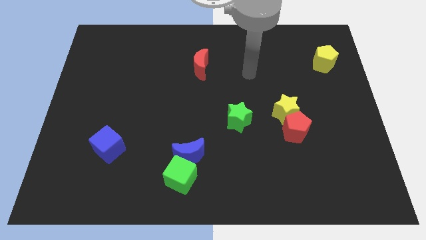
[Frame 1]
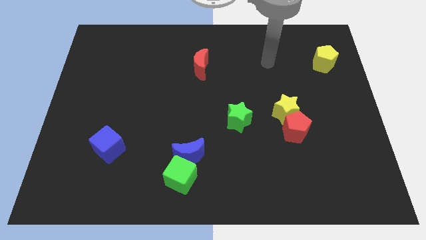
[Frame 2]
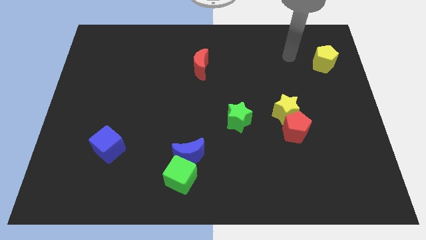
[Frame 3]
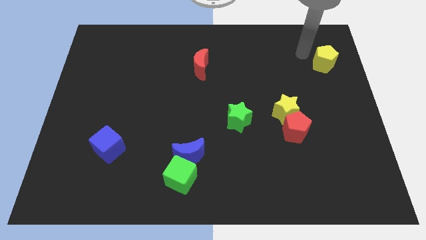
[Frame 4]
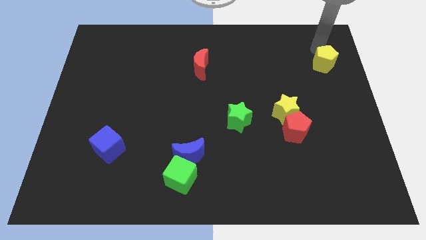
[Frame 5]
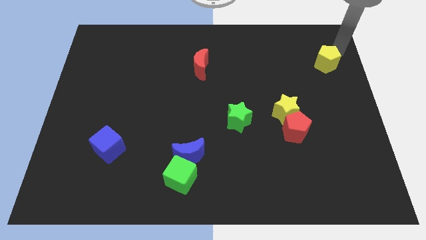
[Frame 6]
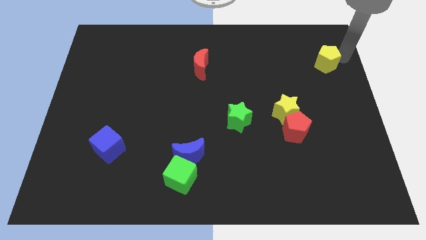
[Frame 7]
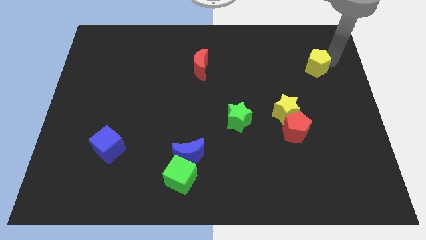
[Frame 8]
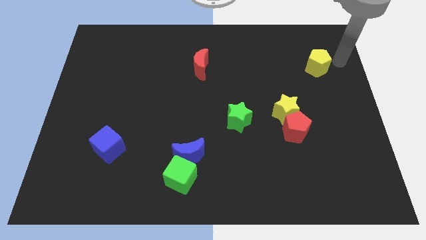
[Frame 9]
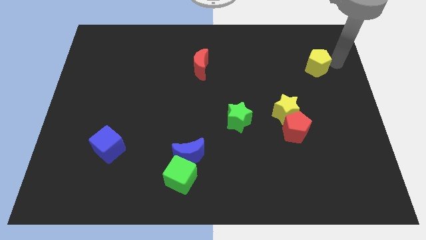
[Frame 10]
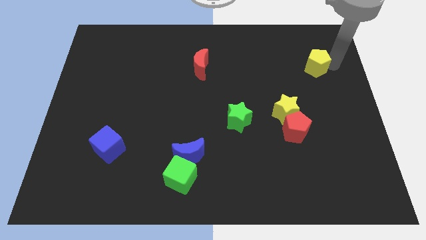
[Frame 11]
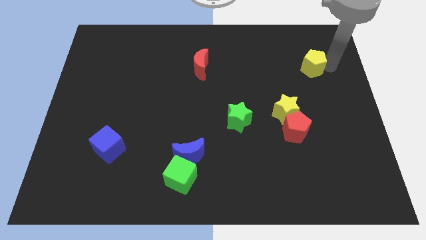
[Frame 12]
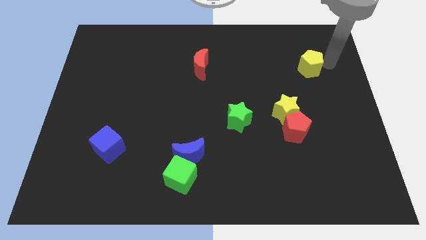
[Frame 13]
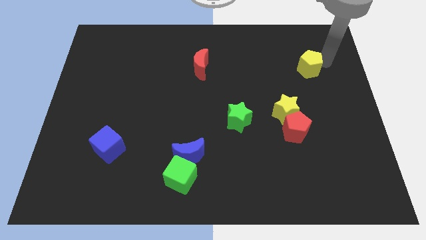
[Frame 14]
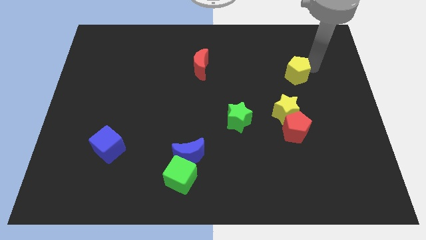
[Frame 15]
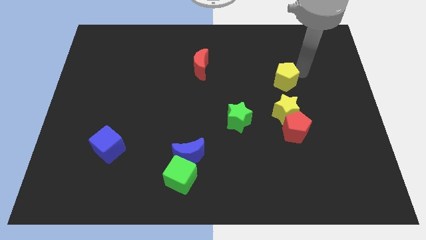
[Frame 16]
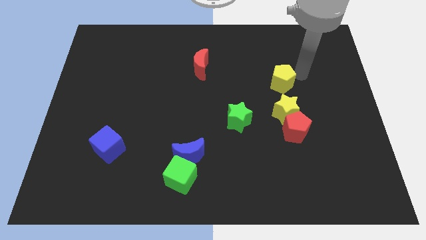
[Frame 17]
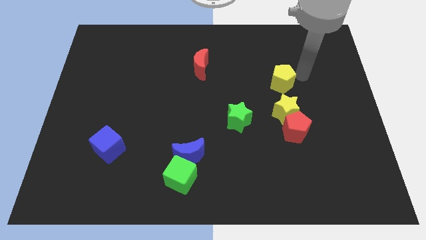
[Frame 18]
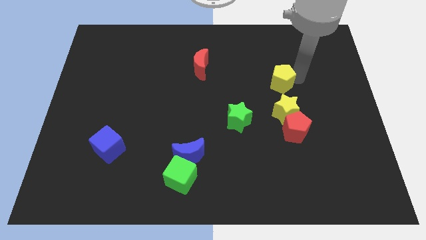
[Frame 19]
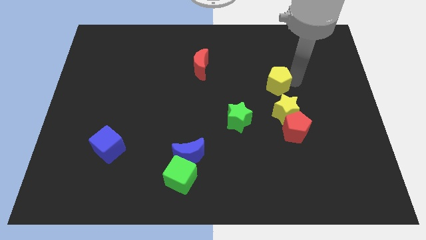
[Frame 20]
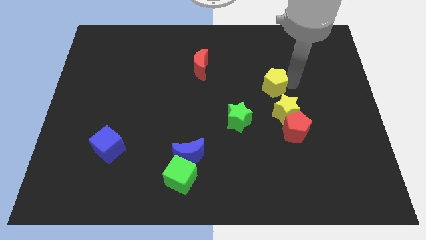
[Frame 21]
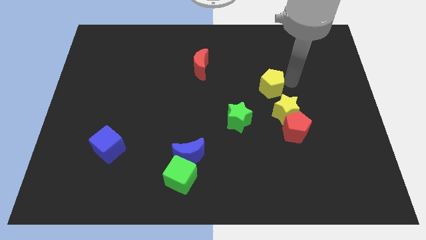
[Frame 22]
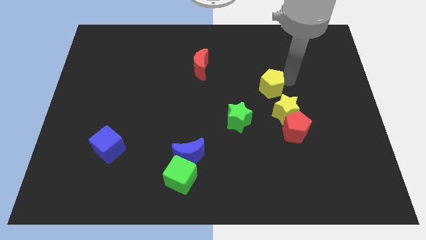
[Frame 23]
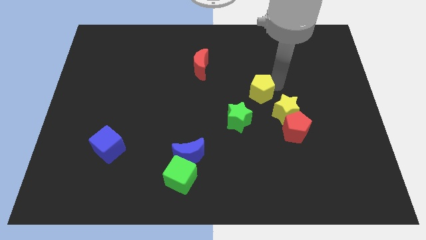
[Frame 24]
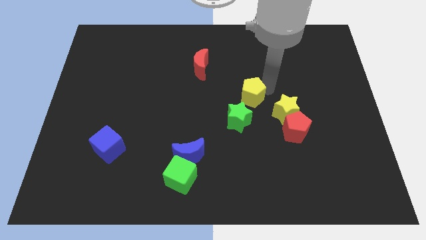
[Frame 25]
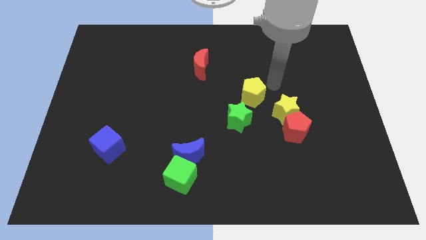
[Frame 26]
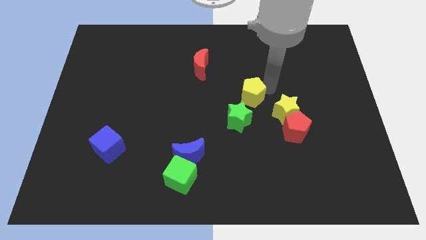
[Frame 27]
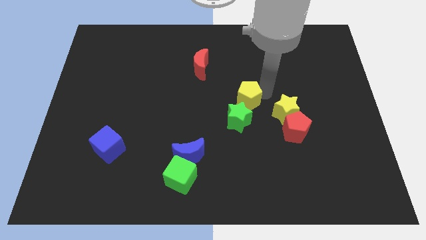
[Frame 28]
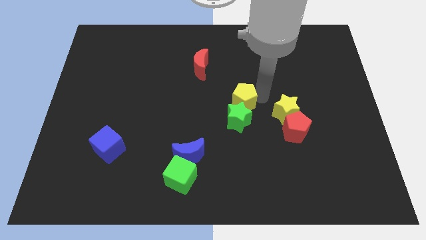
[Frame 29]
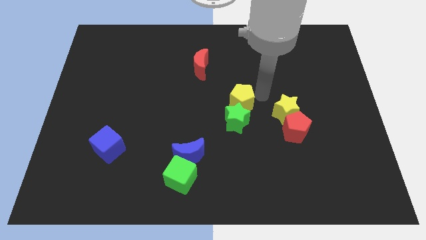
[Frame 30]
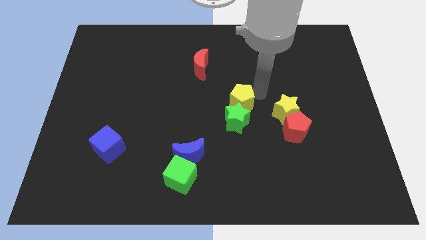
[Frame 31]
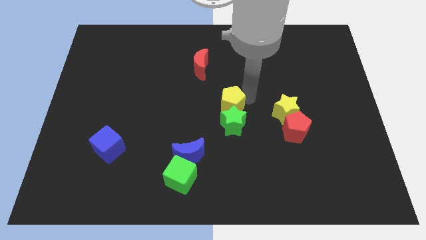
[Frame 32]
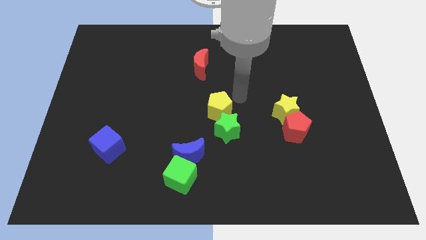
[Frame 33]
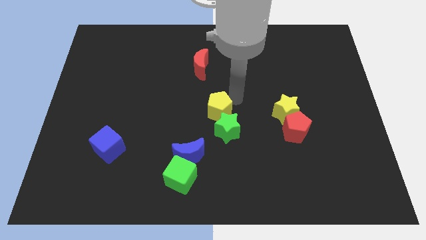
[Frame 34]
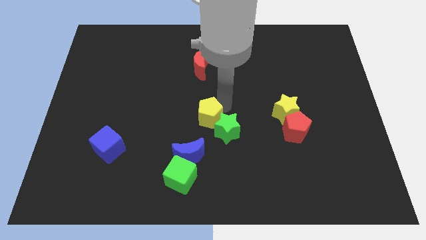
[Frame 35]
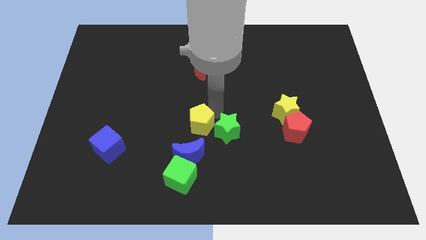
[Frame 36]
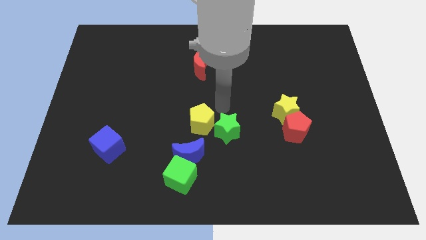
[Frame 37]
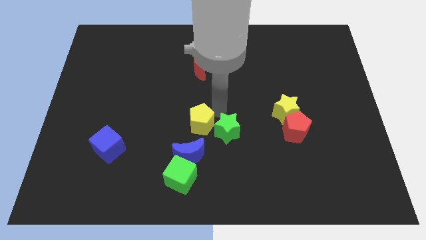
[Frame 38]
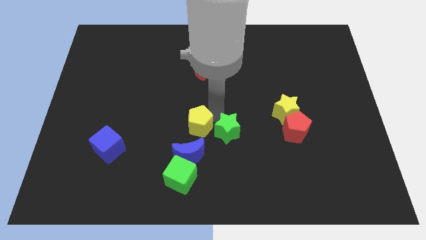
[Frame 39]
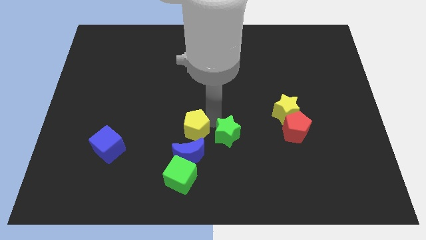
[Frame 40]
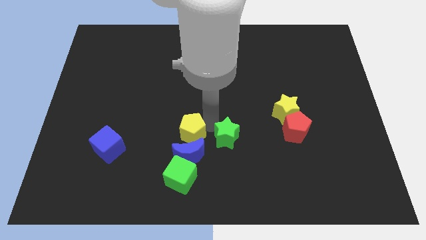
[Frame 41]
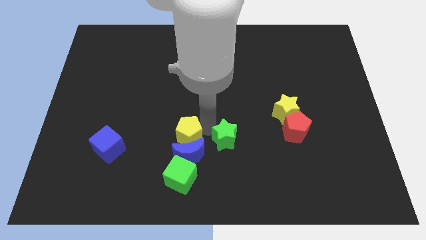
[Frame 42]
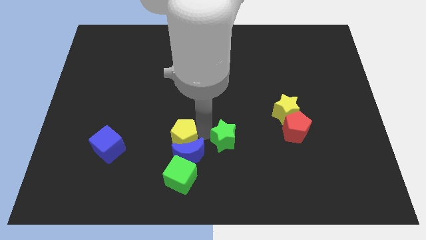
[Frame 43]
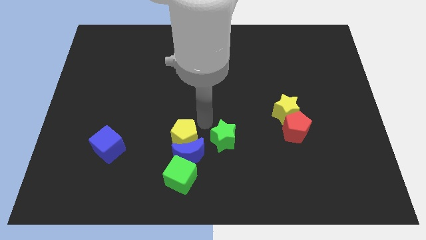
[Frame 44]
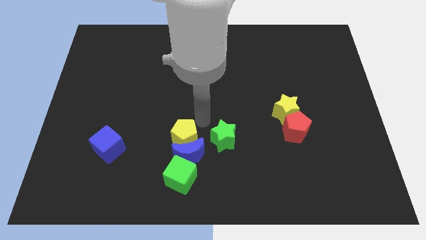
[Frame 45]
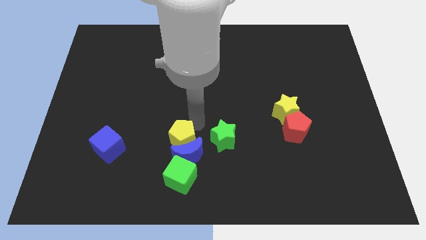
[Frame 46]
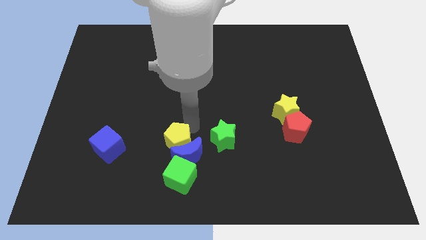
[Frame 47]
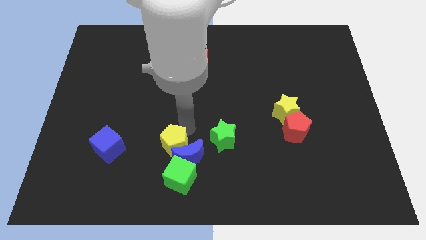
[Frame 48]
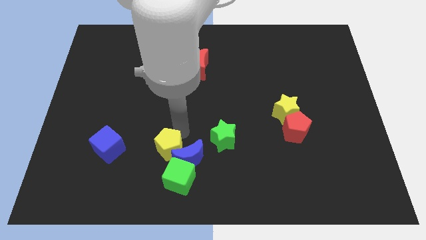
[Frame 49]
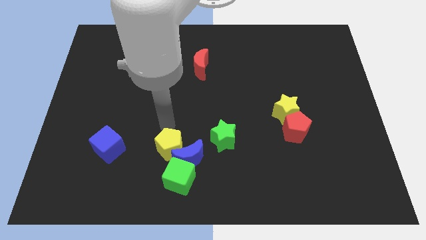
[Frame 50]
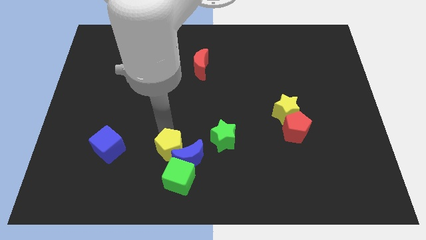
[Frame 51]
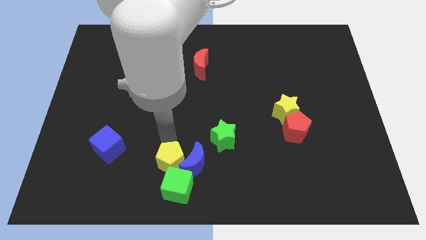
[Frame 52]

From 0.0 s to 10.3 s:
put the yellow pentagon next to the green cube

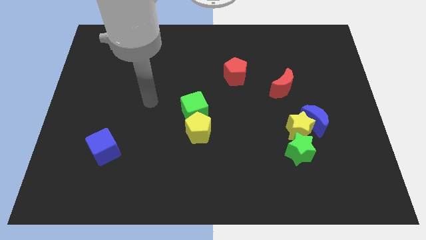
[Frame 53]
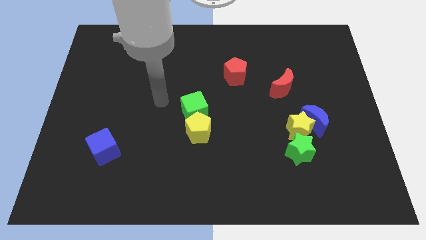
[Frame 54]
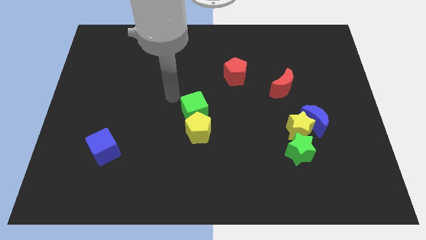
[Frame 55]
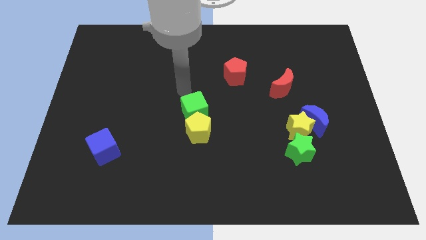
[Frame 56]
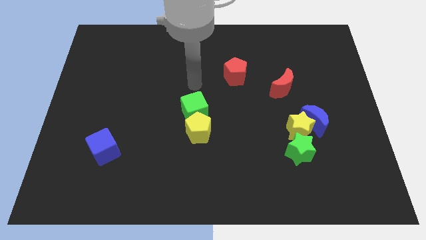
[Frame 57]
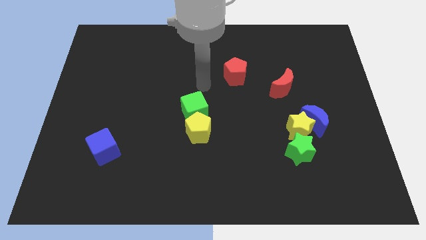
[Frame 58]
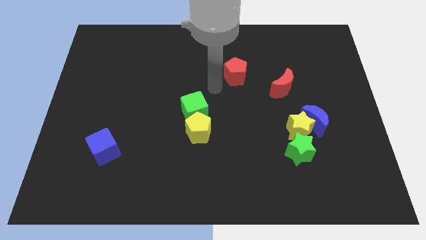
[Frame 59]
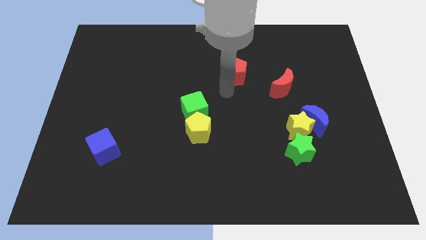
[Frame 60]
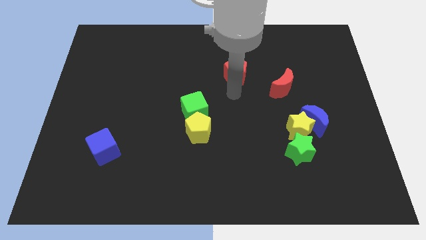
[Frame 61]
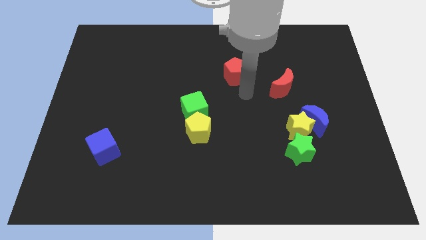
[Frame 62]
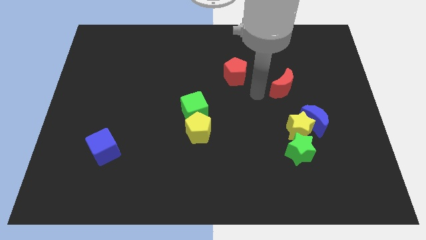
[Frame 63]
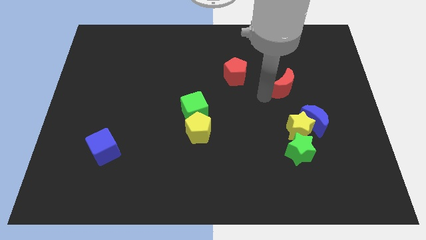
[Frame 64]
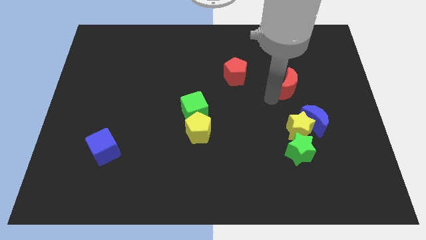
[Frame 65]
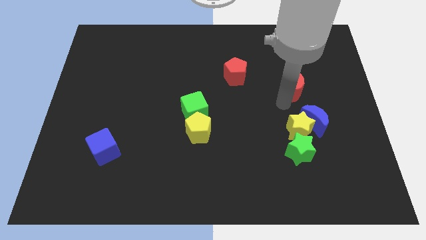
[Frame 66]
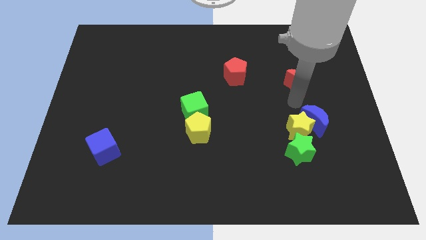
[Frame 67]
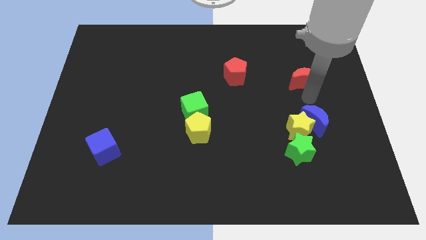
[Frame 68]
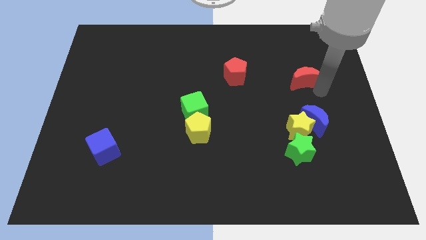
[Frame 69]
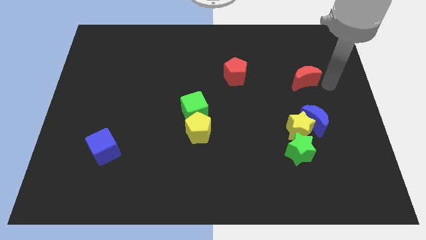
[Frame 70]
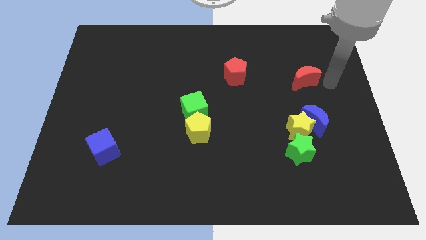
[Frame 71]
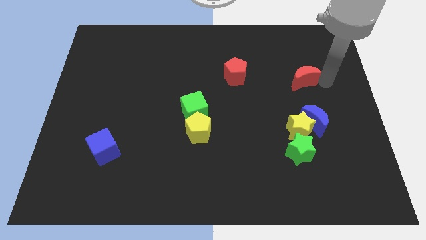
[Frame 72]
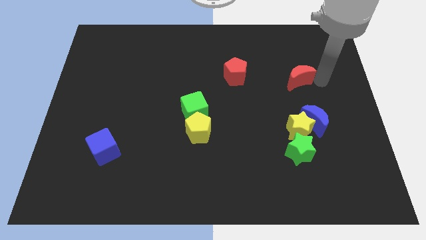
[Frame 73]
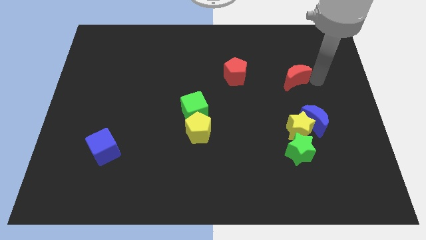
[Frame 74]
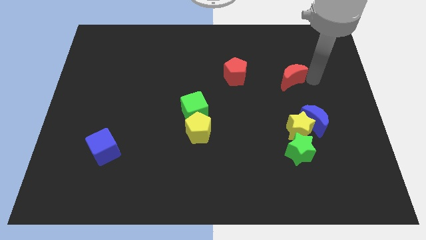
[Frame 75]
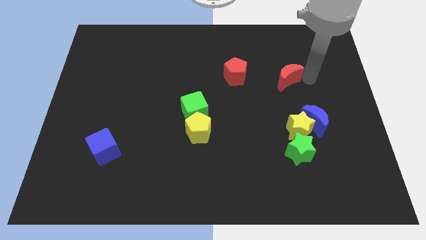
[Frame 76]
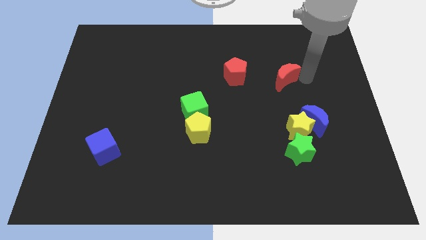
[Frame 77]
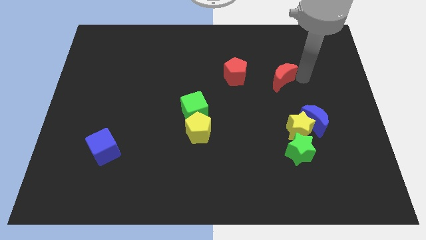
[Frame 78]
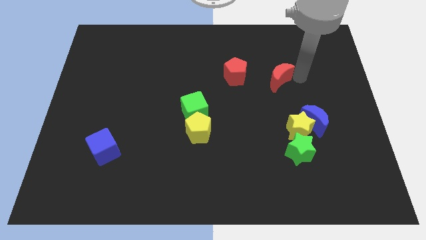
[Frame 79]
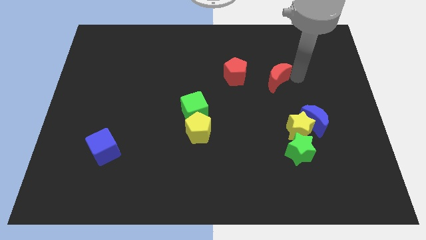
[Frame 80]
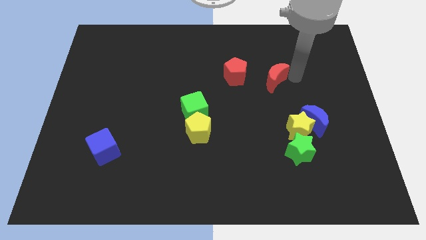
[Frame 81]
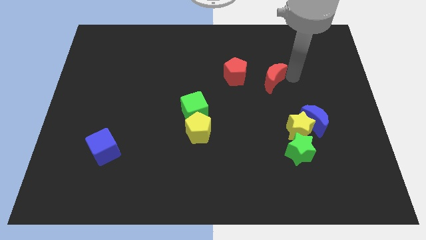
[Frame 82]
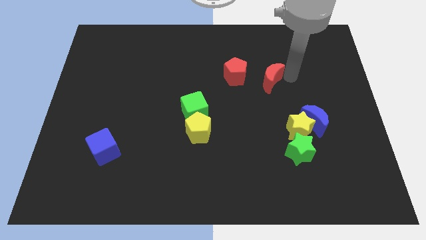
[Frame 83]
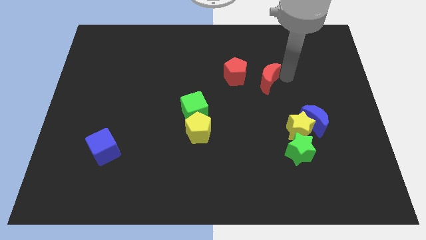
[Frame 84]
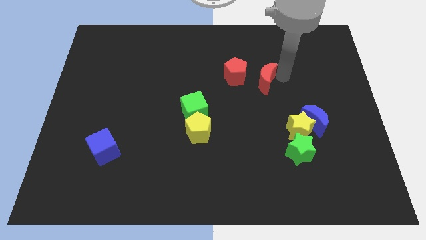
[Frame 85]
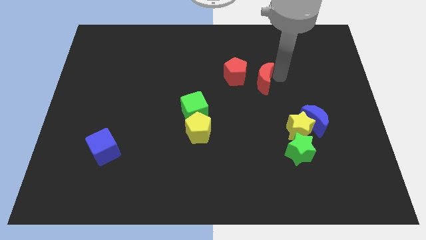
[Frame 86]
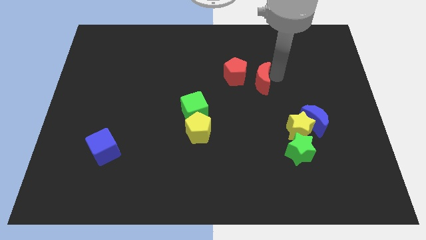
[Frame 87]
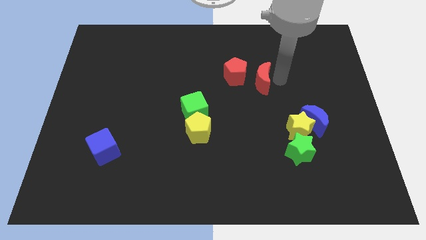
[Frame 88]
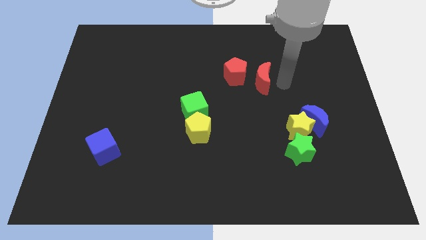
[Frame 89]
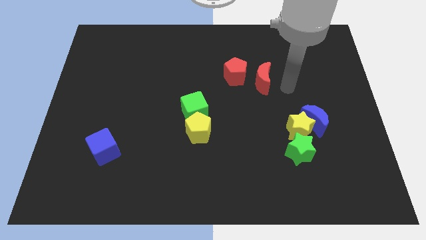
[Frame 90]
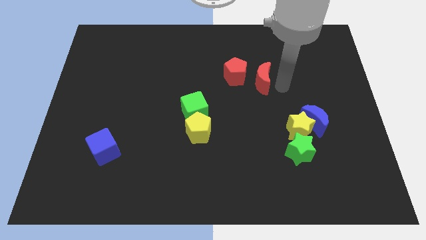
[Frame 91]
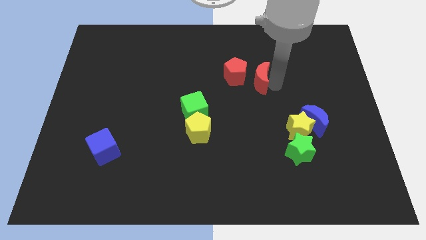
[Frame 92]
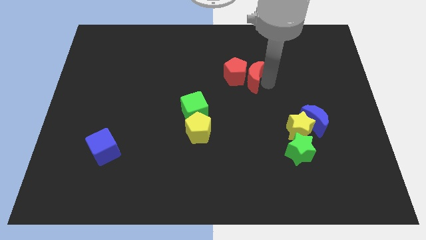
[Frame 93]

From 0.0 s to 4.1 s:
push the red moon towards the red pentagon
